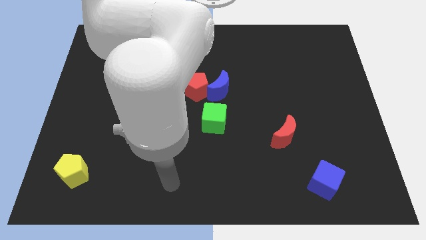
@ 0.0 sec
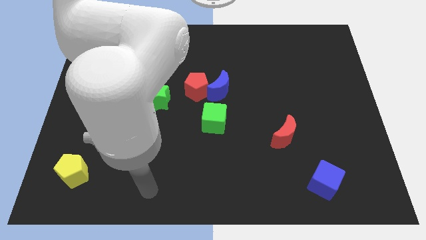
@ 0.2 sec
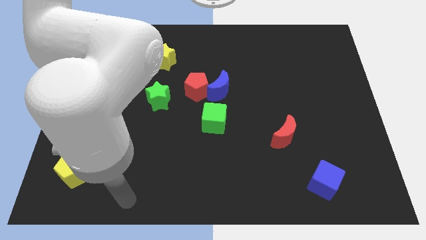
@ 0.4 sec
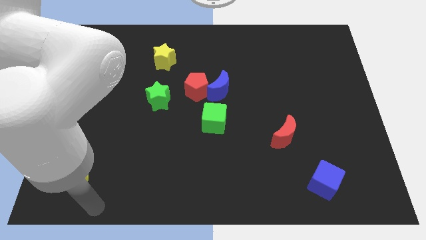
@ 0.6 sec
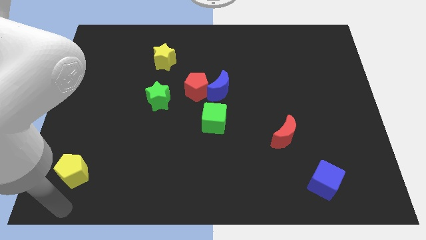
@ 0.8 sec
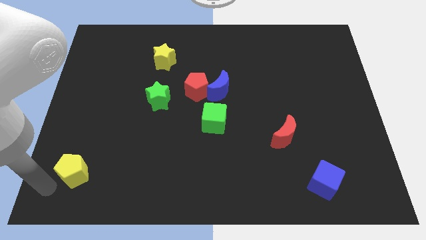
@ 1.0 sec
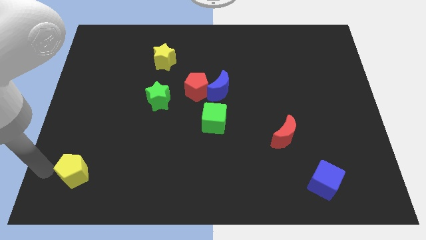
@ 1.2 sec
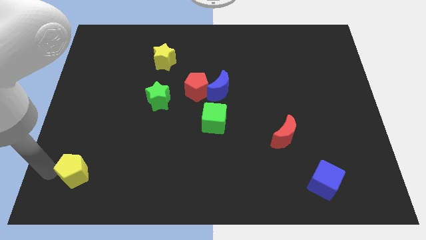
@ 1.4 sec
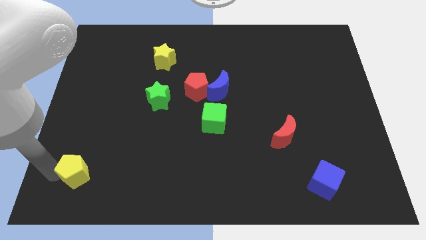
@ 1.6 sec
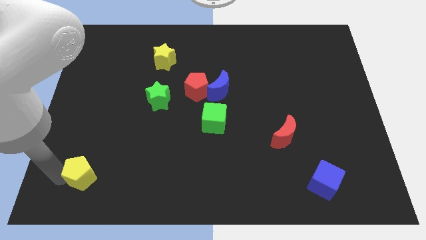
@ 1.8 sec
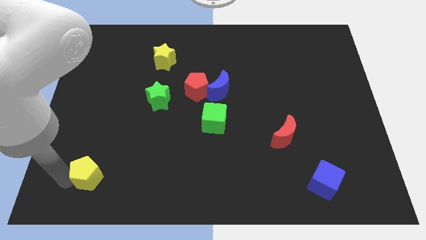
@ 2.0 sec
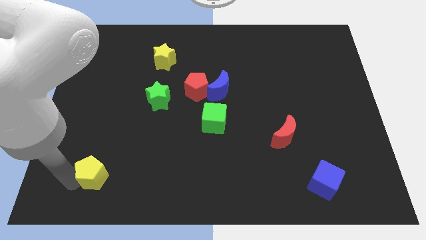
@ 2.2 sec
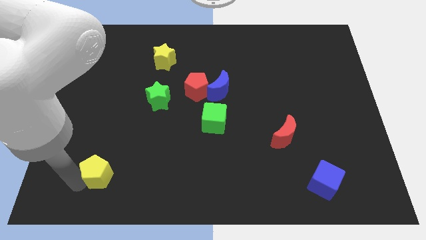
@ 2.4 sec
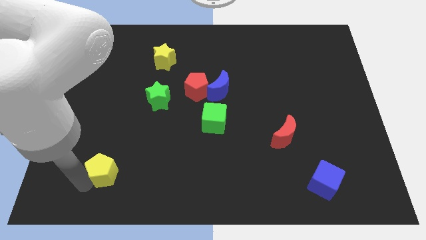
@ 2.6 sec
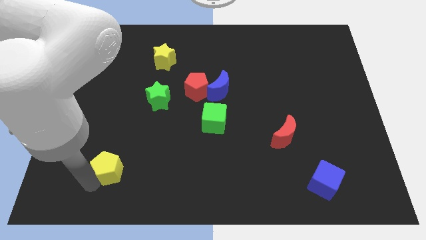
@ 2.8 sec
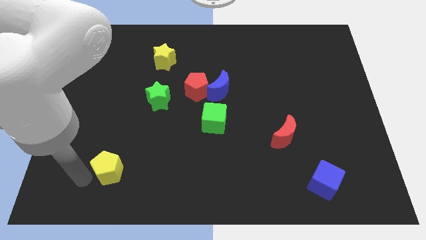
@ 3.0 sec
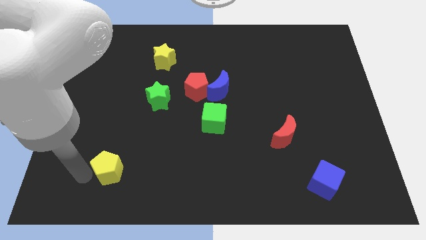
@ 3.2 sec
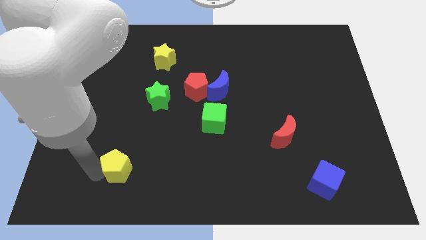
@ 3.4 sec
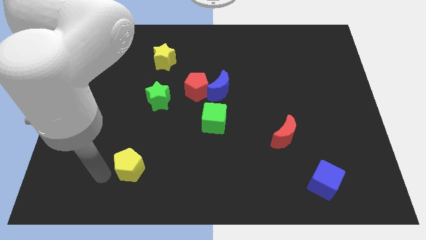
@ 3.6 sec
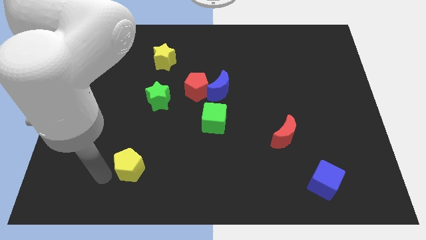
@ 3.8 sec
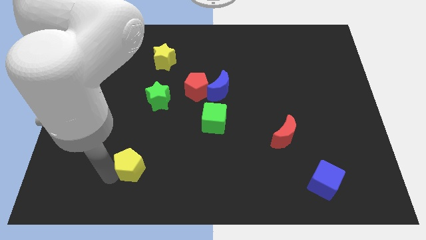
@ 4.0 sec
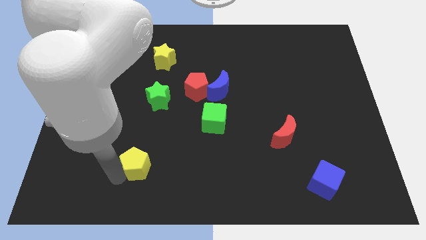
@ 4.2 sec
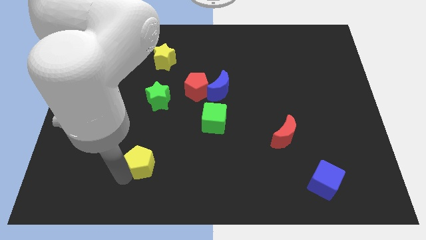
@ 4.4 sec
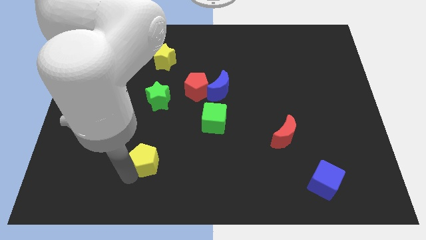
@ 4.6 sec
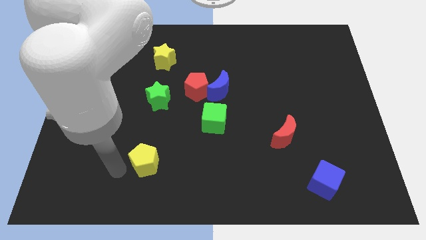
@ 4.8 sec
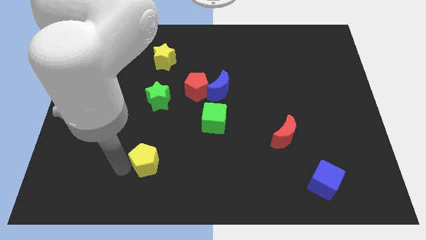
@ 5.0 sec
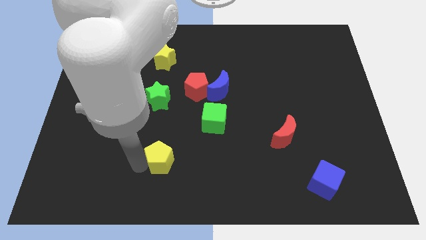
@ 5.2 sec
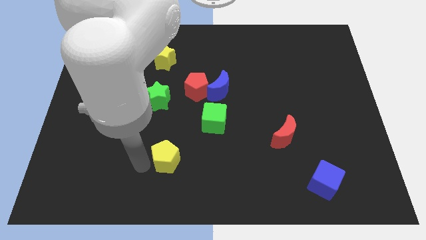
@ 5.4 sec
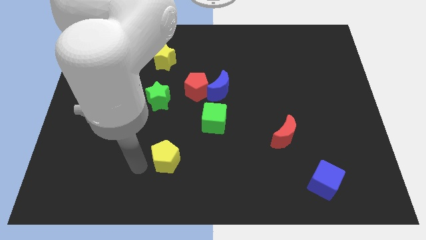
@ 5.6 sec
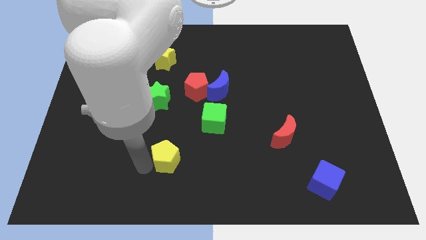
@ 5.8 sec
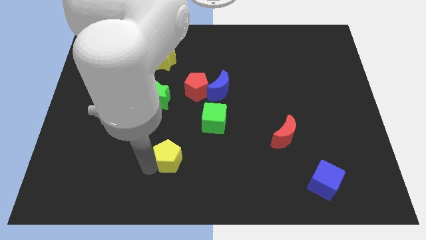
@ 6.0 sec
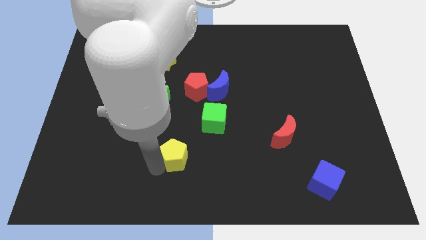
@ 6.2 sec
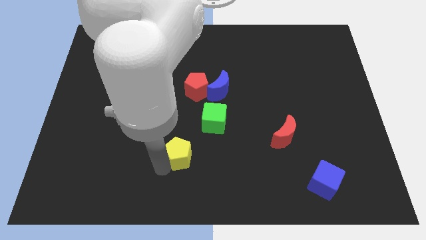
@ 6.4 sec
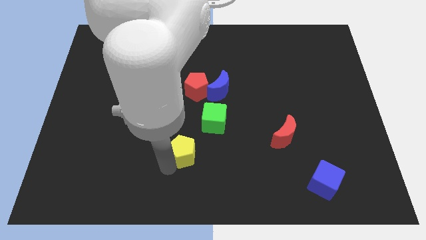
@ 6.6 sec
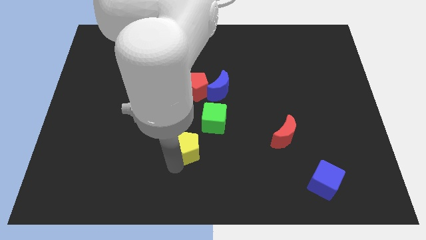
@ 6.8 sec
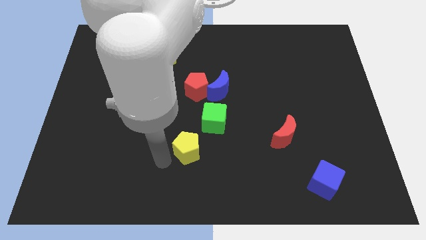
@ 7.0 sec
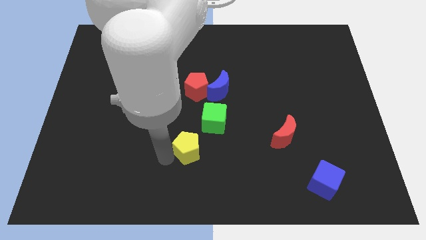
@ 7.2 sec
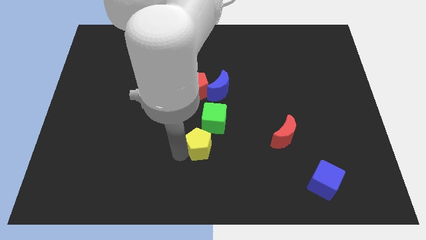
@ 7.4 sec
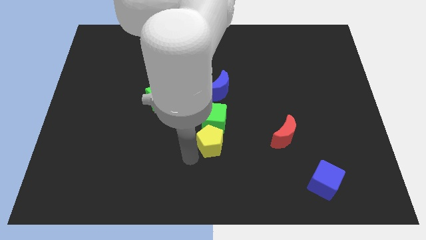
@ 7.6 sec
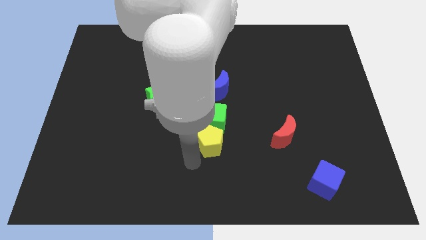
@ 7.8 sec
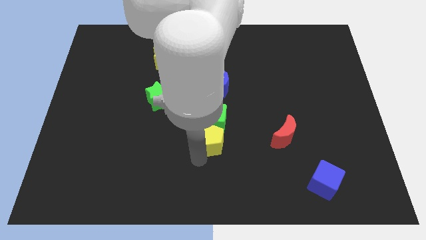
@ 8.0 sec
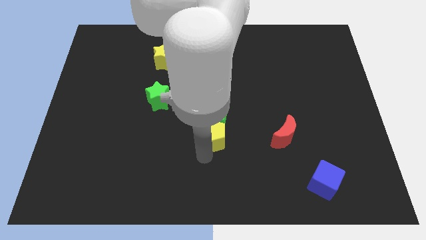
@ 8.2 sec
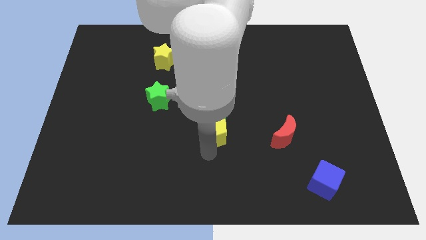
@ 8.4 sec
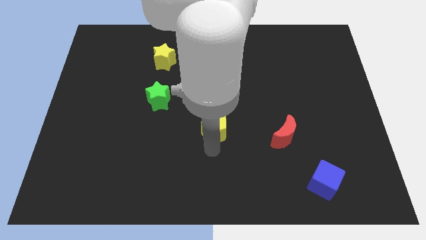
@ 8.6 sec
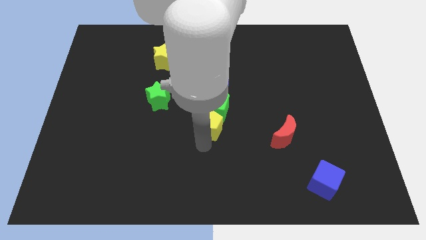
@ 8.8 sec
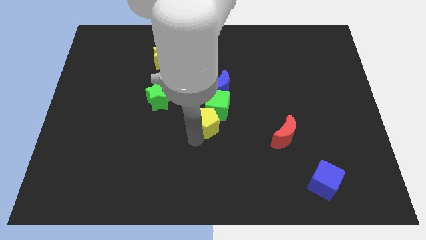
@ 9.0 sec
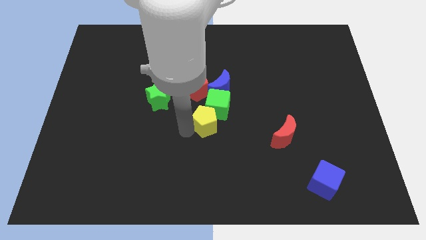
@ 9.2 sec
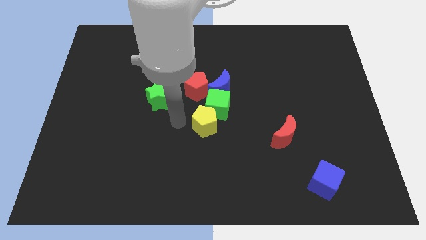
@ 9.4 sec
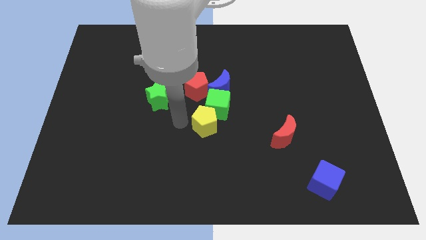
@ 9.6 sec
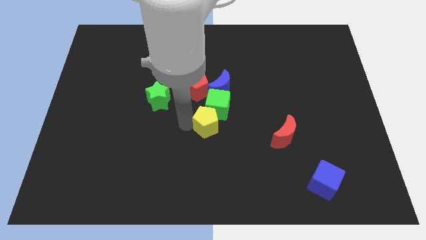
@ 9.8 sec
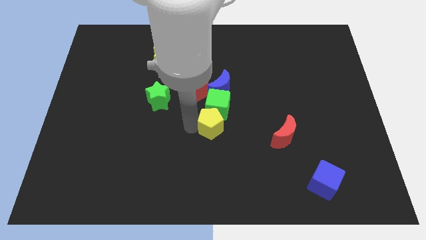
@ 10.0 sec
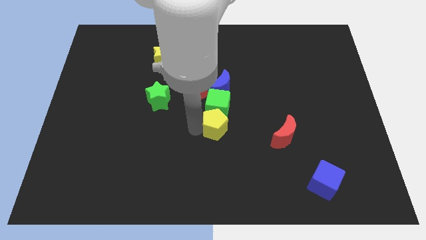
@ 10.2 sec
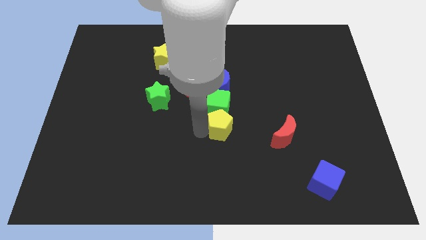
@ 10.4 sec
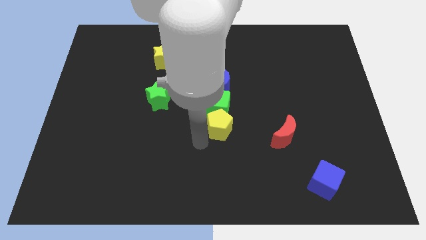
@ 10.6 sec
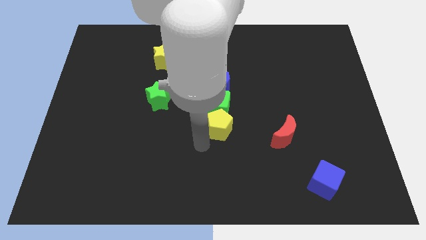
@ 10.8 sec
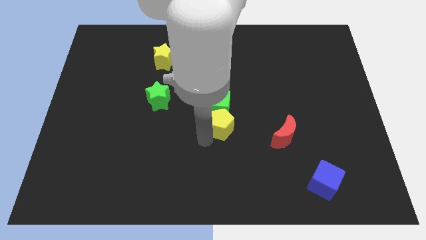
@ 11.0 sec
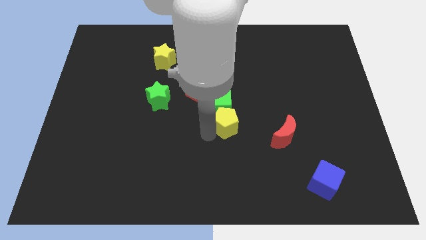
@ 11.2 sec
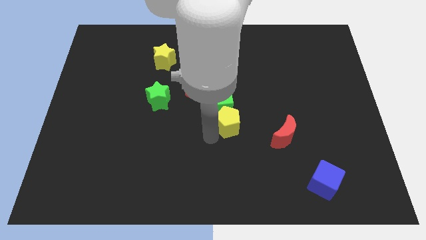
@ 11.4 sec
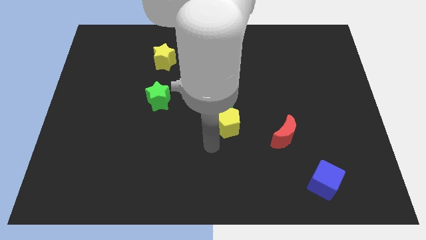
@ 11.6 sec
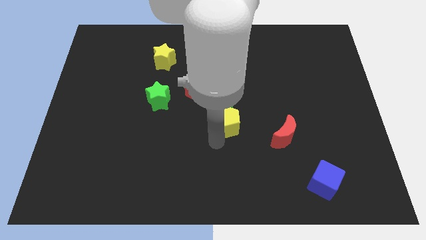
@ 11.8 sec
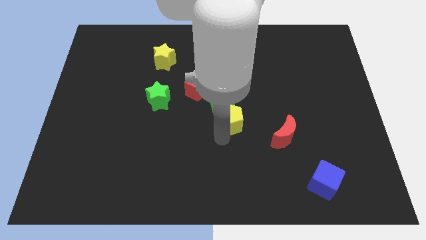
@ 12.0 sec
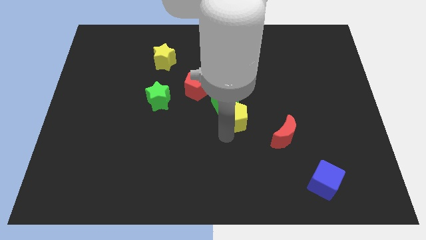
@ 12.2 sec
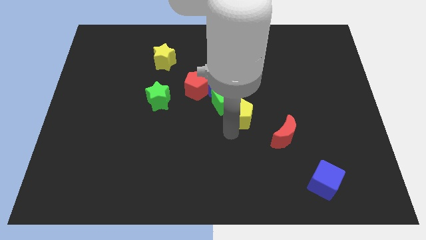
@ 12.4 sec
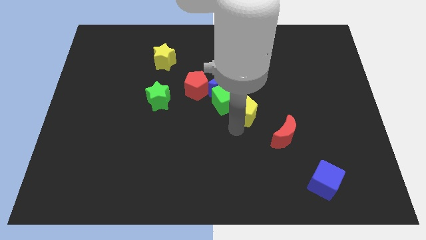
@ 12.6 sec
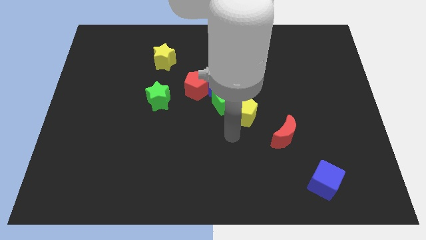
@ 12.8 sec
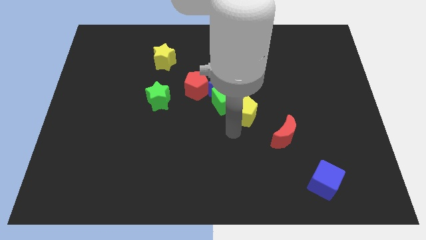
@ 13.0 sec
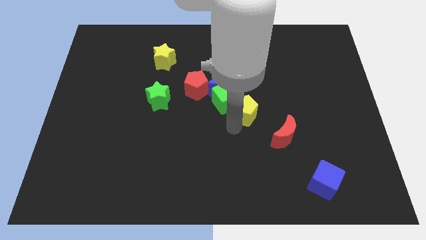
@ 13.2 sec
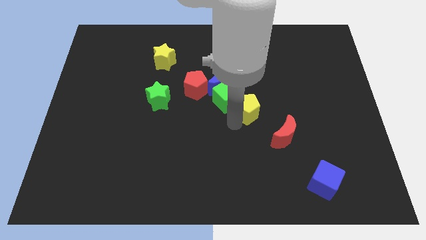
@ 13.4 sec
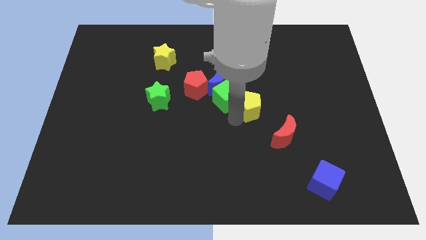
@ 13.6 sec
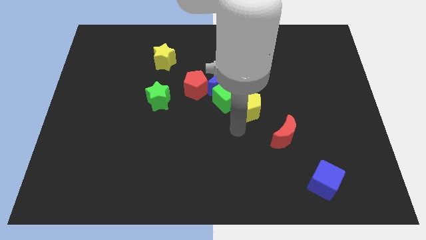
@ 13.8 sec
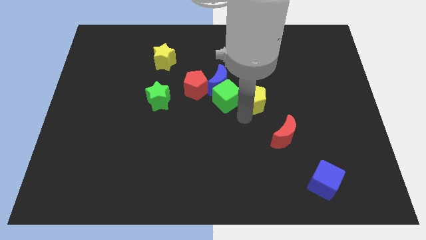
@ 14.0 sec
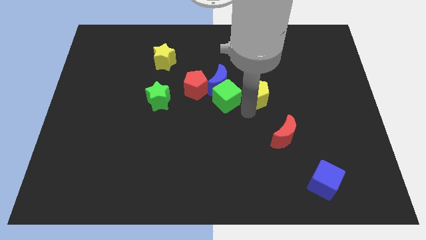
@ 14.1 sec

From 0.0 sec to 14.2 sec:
slide the yellow pentagon right of the blue moon

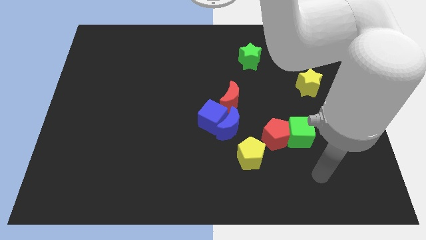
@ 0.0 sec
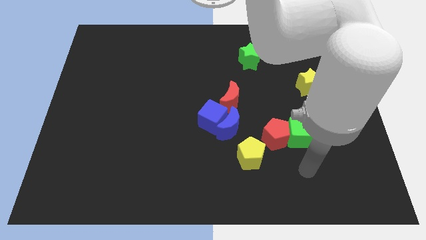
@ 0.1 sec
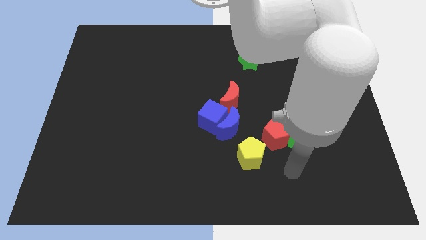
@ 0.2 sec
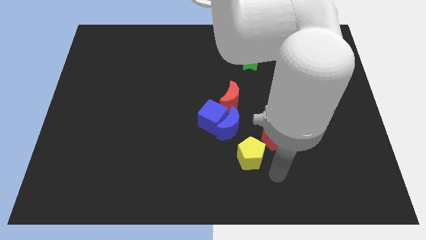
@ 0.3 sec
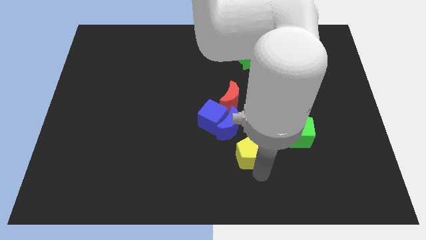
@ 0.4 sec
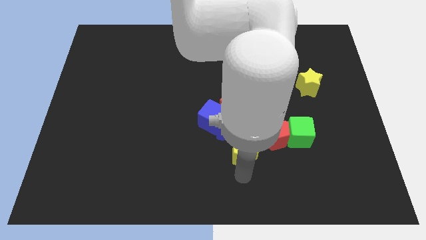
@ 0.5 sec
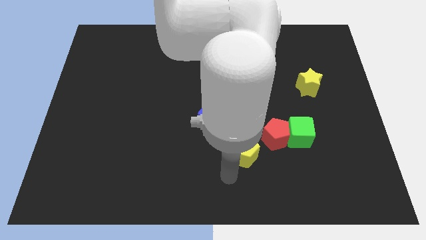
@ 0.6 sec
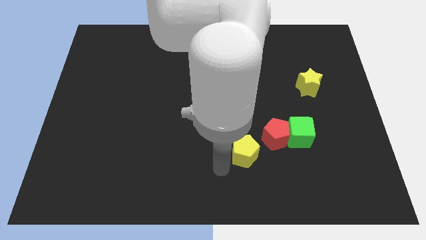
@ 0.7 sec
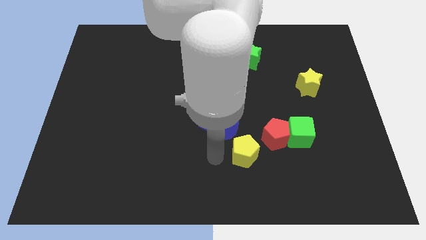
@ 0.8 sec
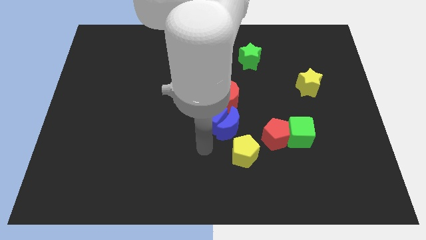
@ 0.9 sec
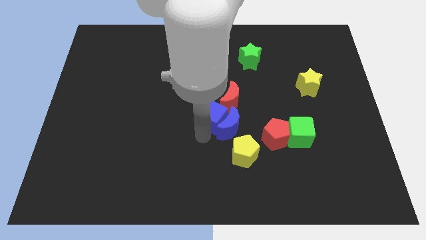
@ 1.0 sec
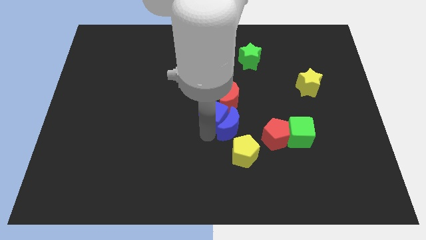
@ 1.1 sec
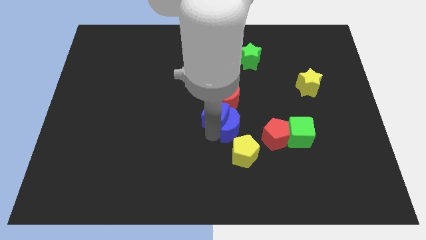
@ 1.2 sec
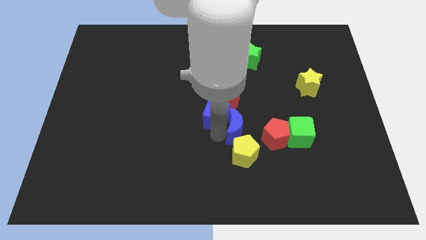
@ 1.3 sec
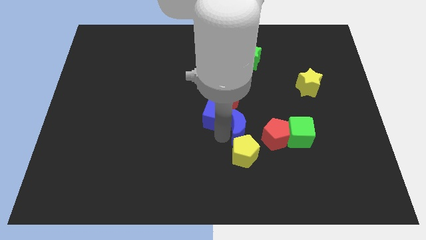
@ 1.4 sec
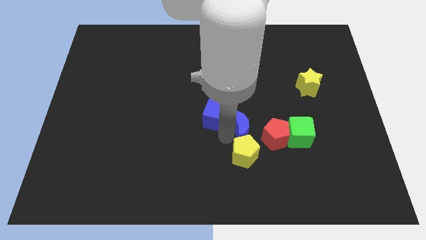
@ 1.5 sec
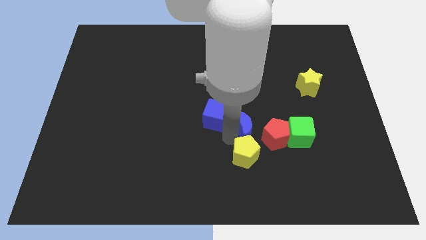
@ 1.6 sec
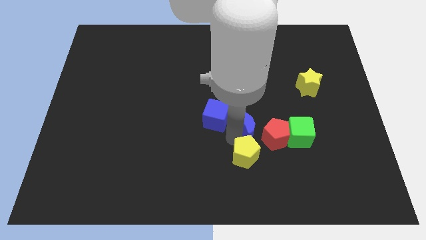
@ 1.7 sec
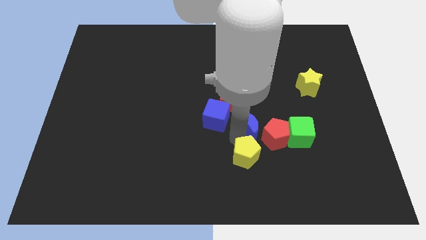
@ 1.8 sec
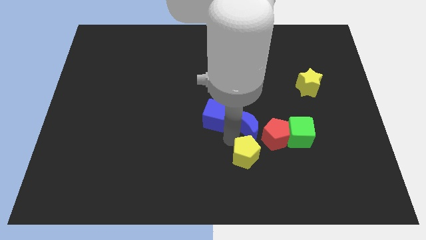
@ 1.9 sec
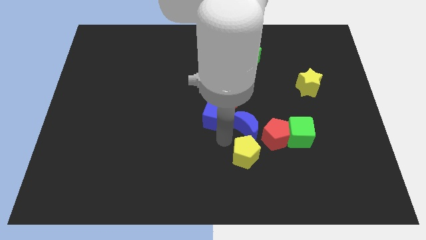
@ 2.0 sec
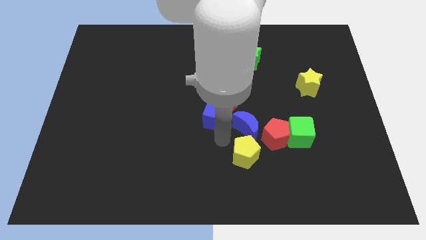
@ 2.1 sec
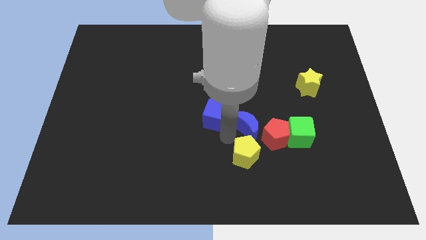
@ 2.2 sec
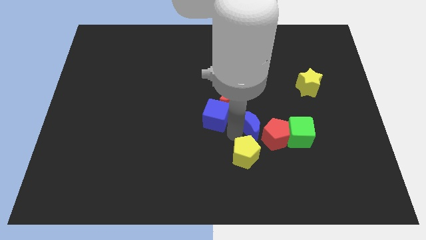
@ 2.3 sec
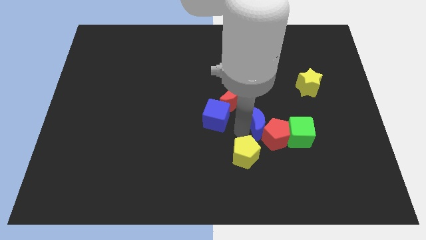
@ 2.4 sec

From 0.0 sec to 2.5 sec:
move the blue moon diagonally up and to the left of the green cube
